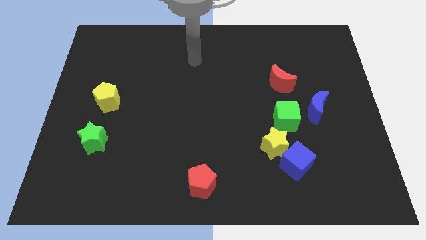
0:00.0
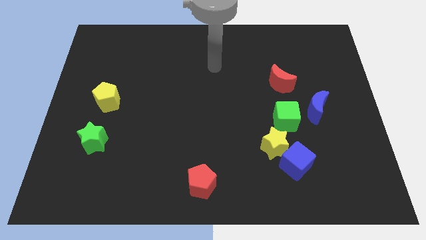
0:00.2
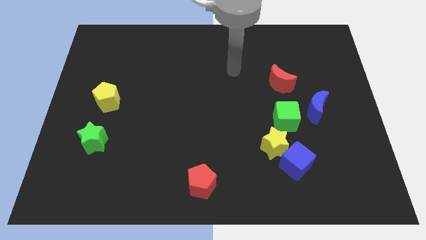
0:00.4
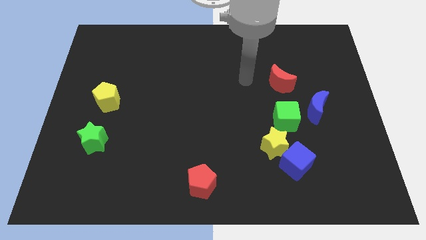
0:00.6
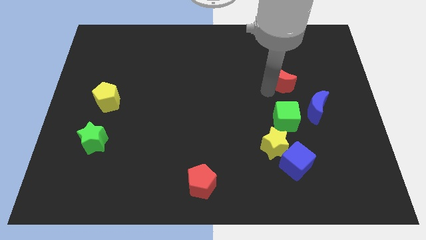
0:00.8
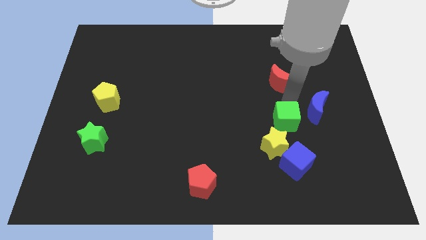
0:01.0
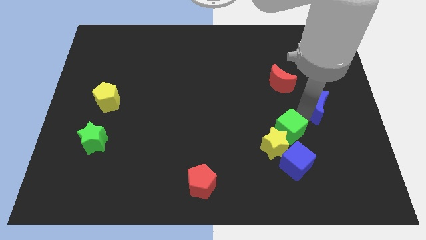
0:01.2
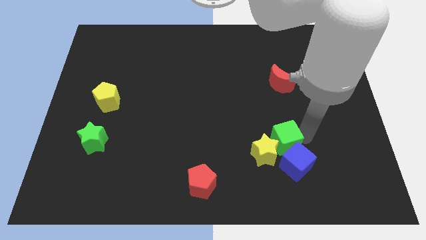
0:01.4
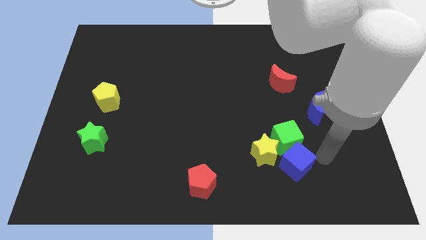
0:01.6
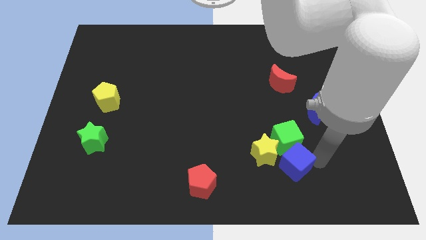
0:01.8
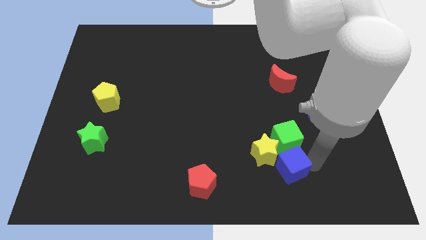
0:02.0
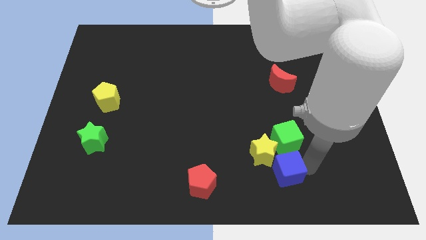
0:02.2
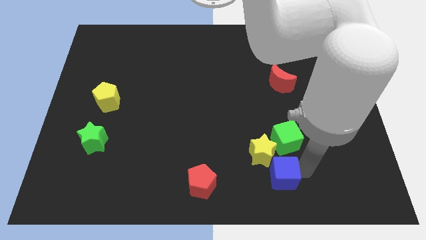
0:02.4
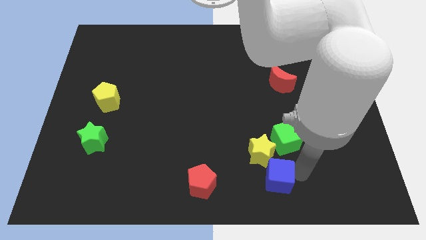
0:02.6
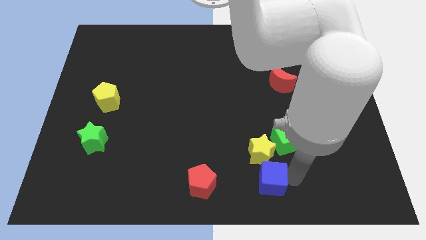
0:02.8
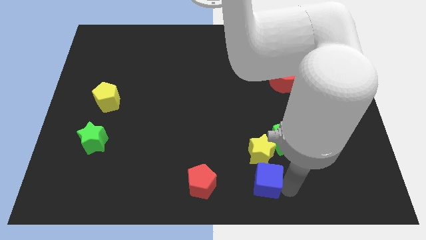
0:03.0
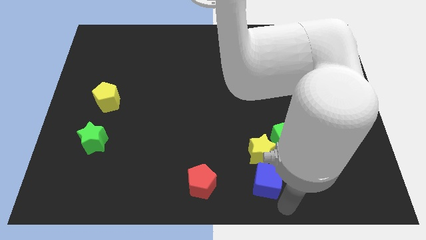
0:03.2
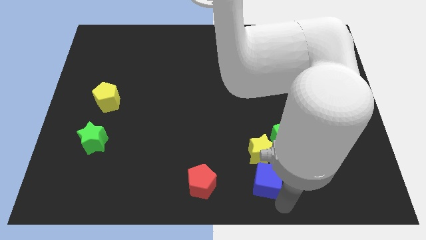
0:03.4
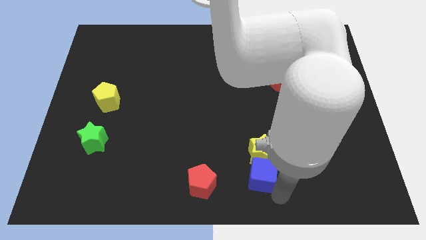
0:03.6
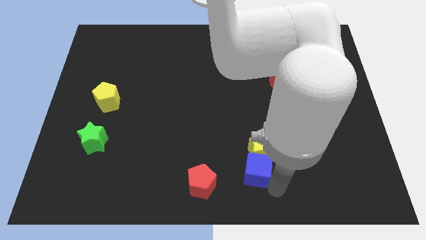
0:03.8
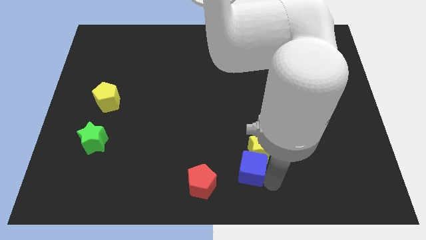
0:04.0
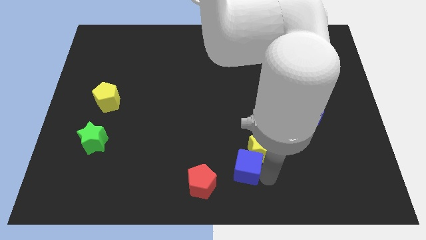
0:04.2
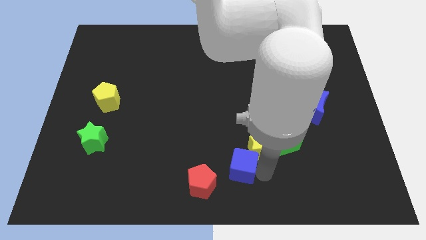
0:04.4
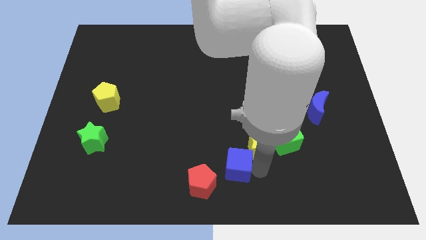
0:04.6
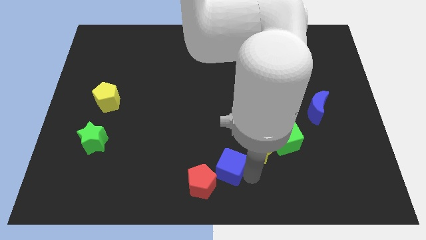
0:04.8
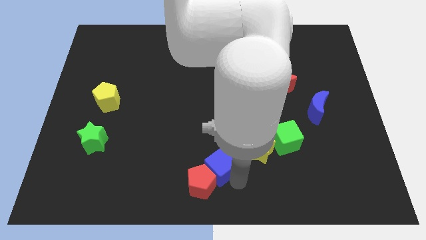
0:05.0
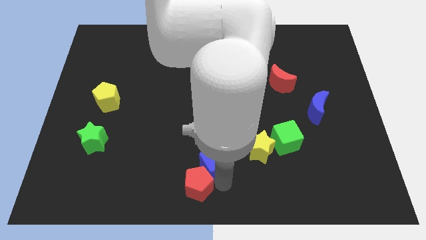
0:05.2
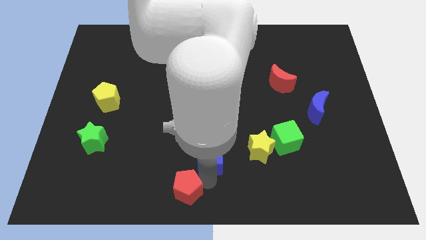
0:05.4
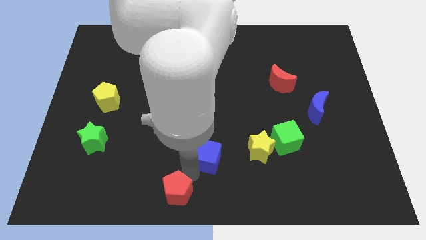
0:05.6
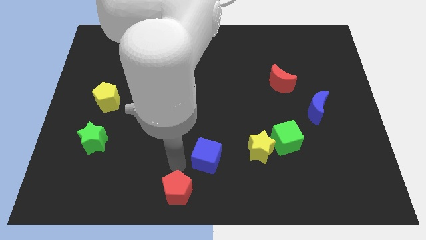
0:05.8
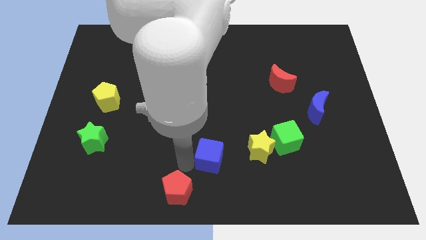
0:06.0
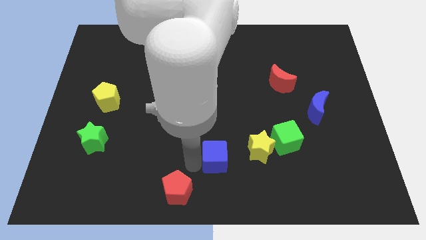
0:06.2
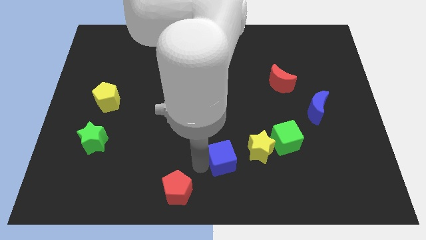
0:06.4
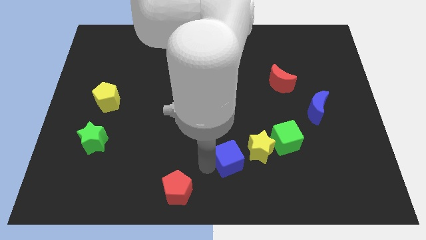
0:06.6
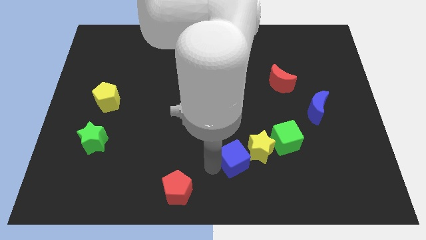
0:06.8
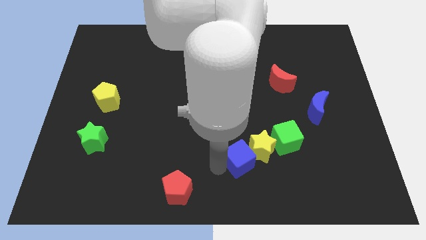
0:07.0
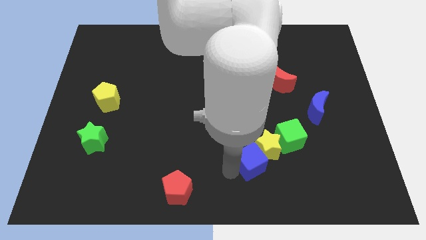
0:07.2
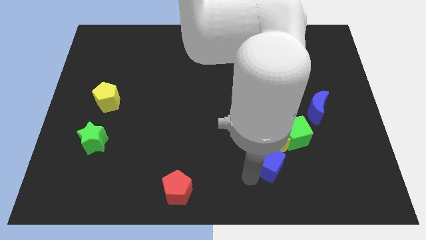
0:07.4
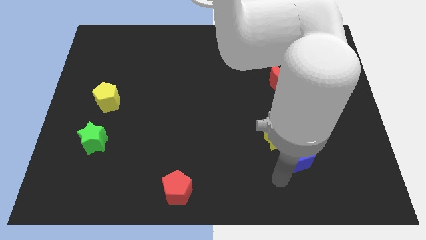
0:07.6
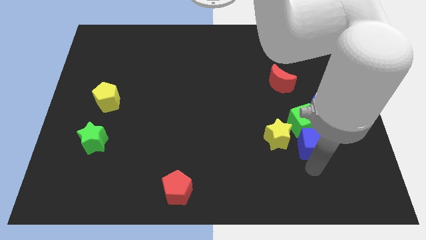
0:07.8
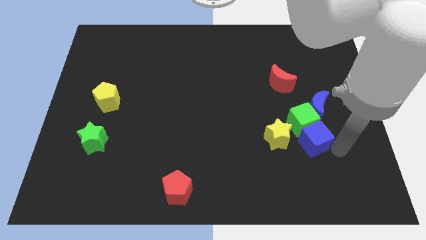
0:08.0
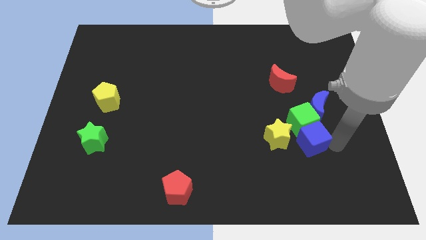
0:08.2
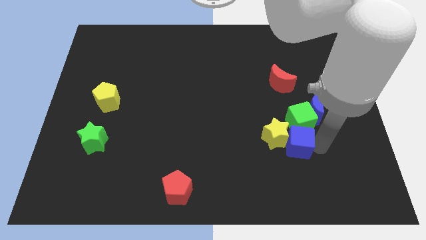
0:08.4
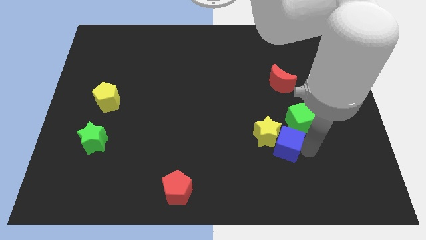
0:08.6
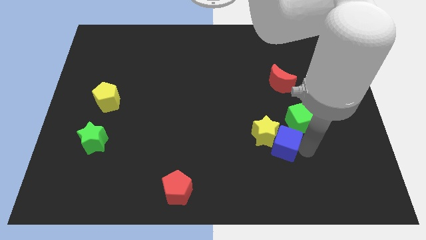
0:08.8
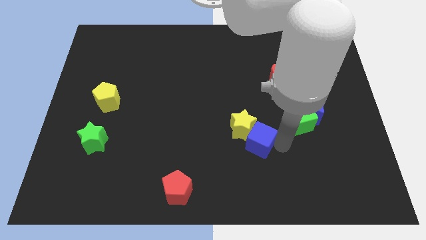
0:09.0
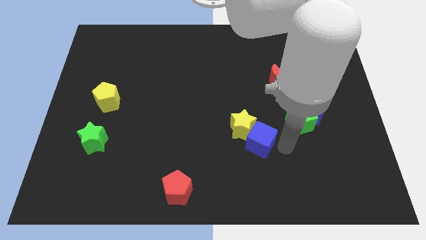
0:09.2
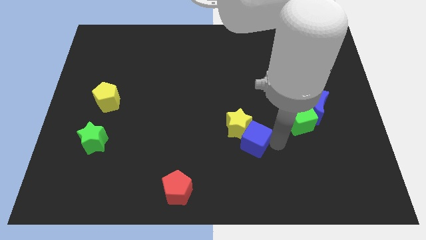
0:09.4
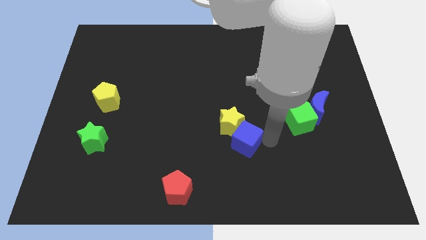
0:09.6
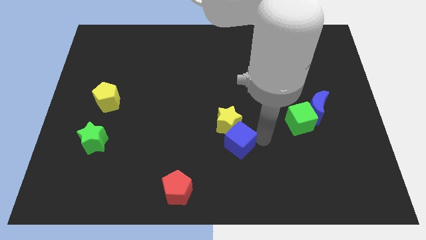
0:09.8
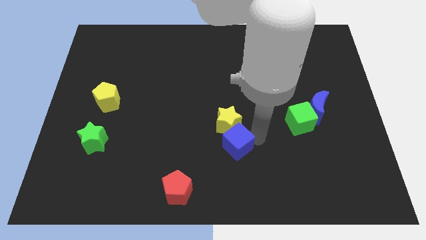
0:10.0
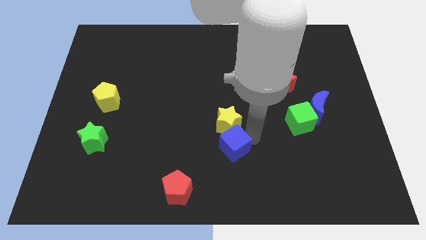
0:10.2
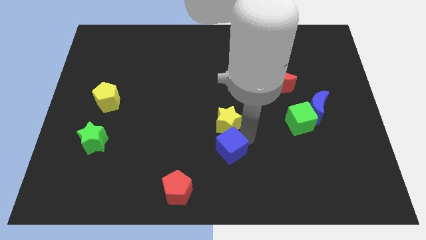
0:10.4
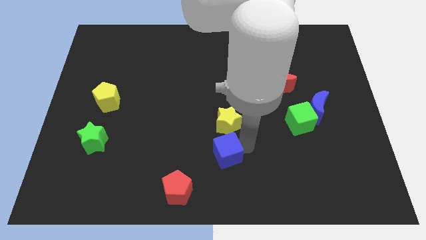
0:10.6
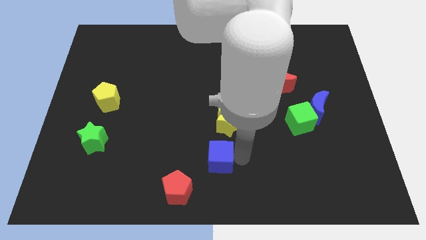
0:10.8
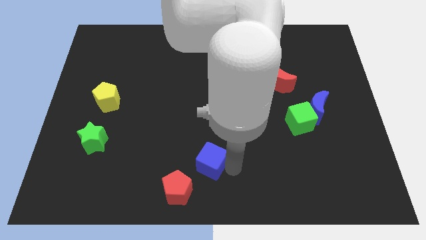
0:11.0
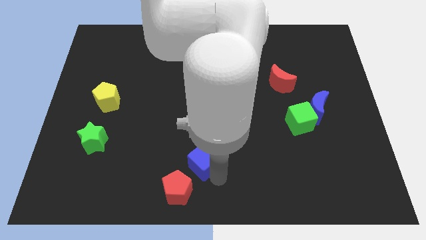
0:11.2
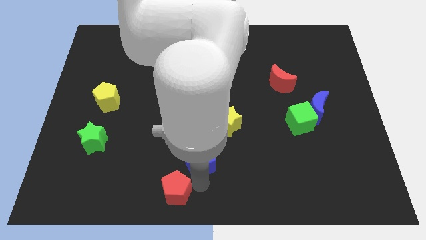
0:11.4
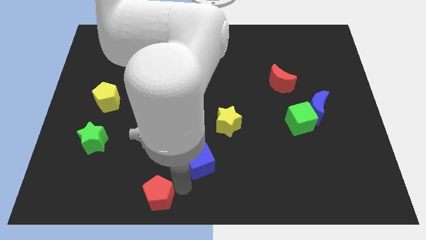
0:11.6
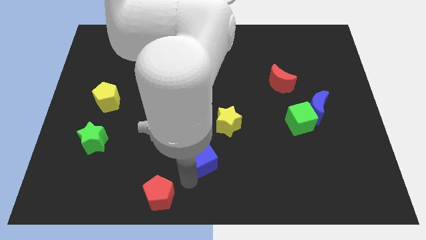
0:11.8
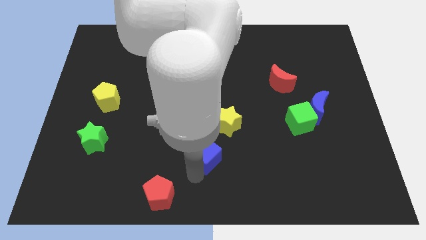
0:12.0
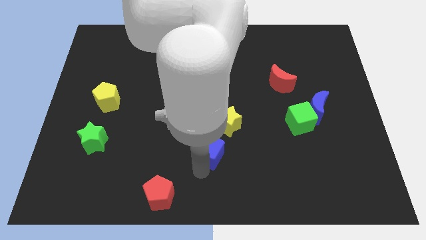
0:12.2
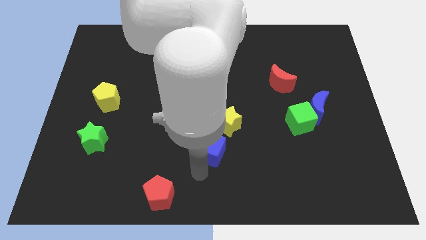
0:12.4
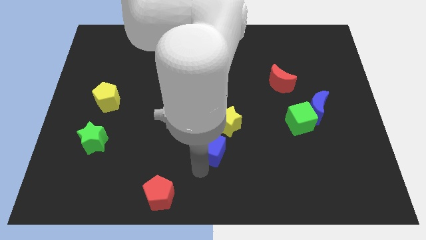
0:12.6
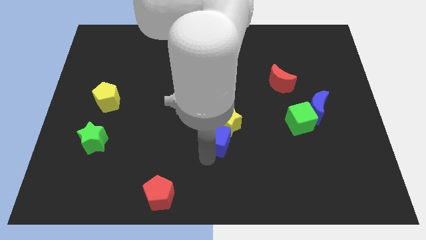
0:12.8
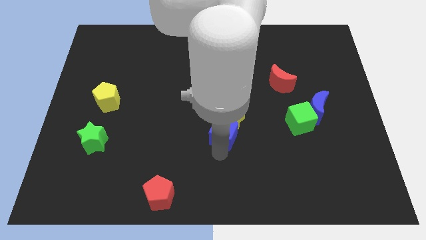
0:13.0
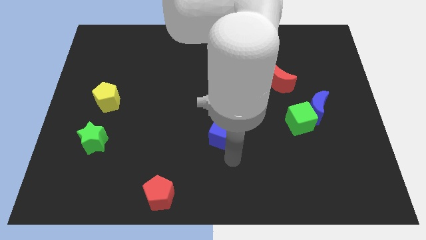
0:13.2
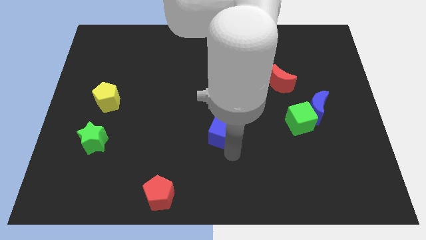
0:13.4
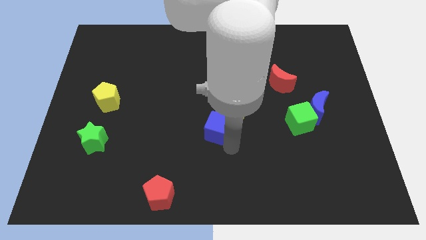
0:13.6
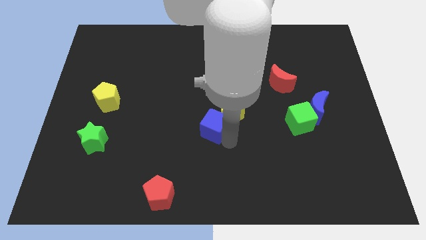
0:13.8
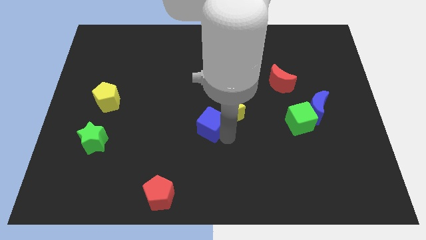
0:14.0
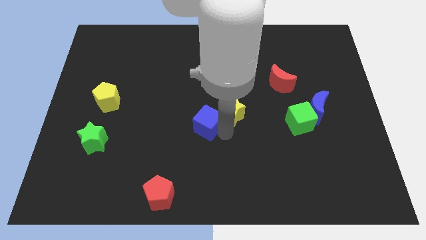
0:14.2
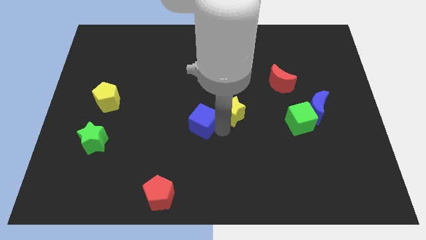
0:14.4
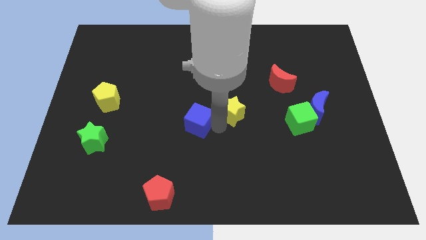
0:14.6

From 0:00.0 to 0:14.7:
slide the blue cube diagonally up and to the left

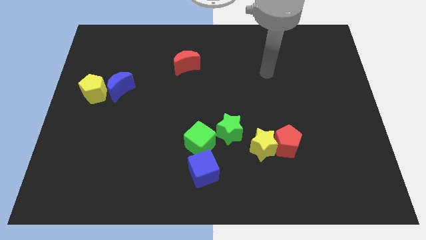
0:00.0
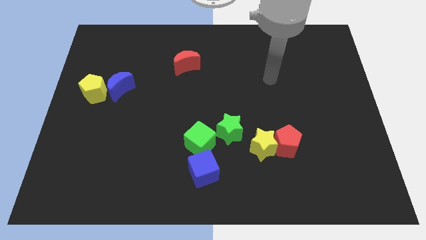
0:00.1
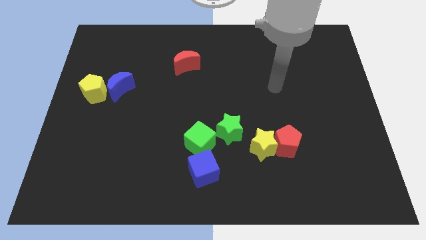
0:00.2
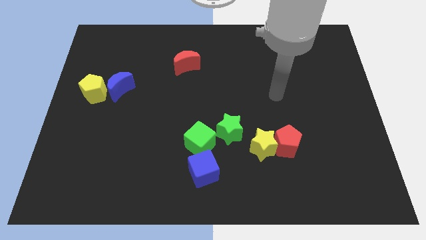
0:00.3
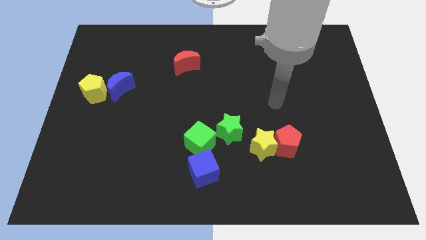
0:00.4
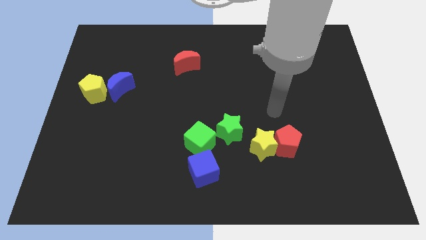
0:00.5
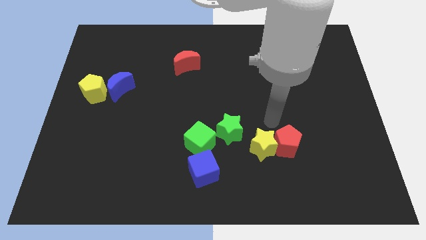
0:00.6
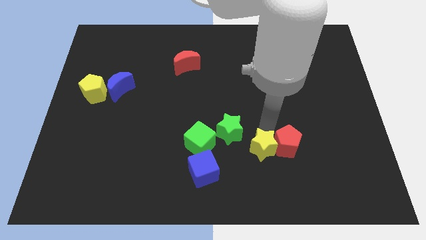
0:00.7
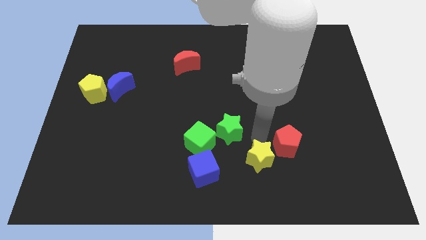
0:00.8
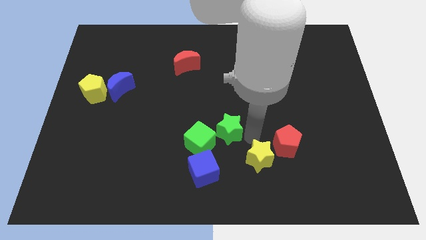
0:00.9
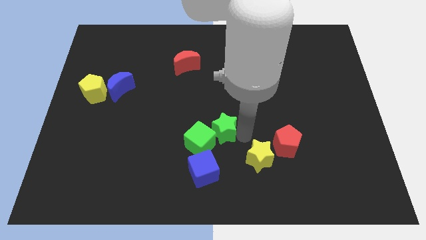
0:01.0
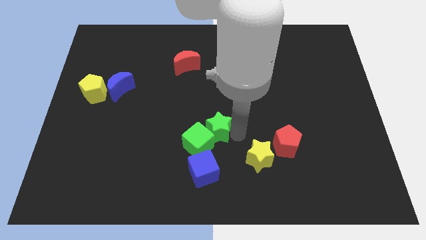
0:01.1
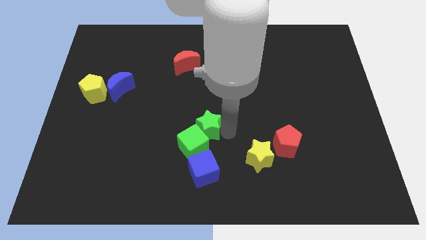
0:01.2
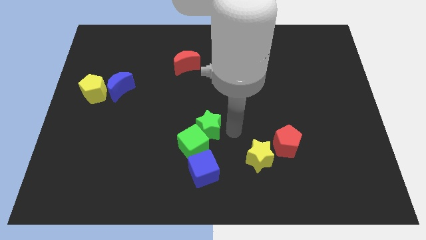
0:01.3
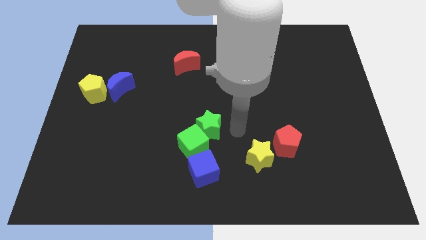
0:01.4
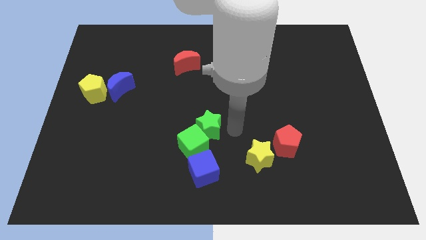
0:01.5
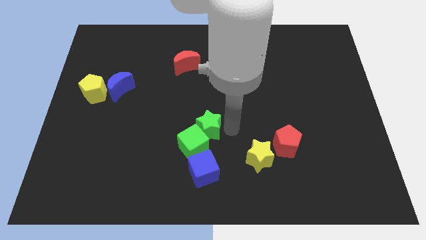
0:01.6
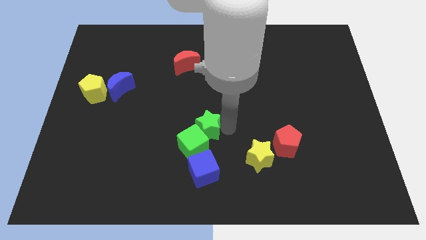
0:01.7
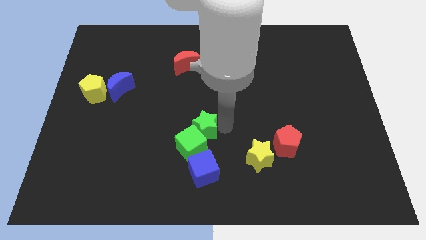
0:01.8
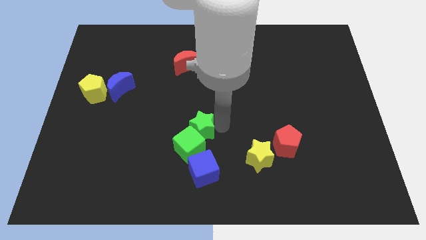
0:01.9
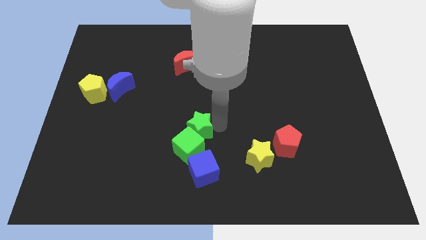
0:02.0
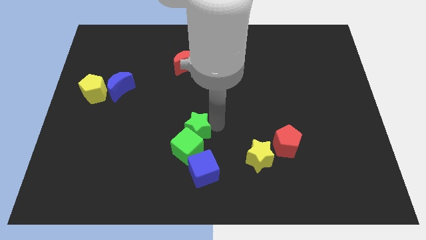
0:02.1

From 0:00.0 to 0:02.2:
move the green star left somewhat
